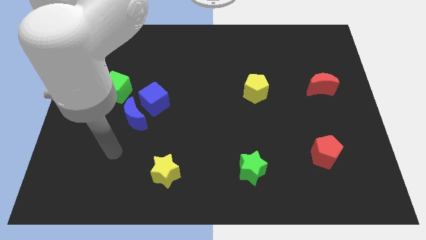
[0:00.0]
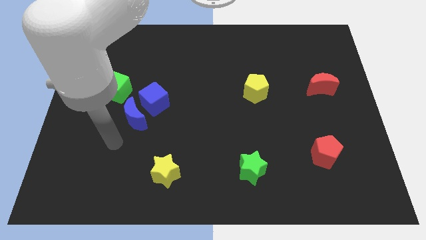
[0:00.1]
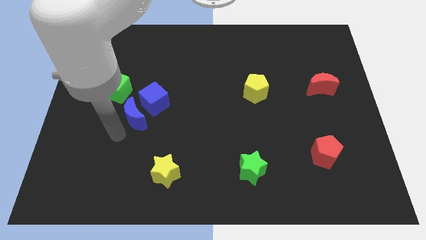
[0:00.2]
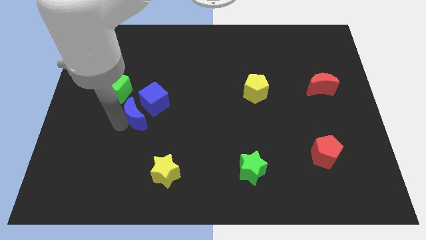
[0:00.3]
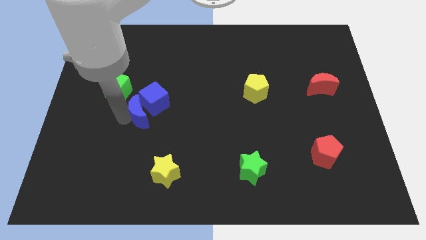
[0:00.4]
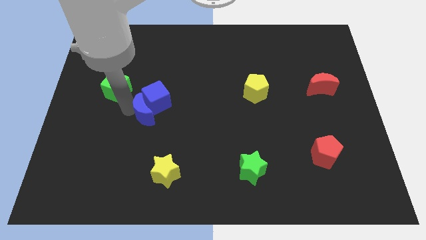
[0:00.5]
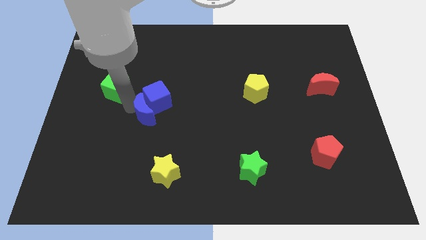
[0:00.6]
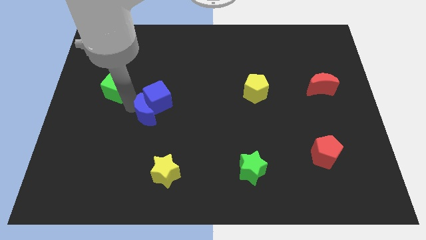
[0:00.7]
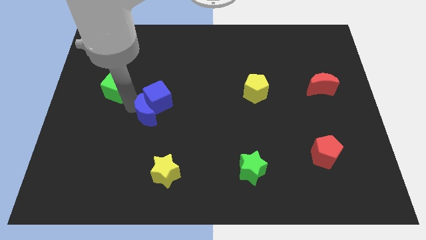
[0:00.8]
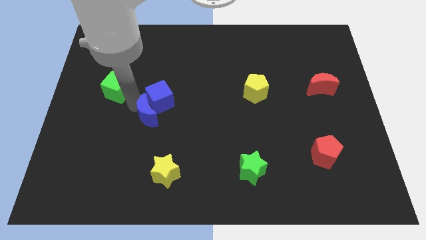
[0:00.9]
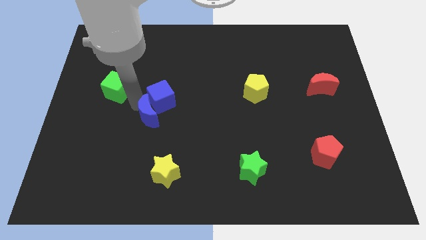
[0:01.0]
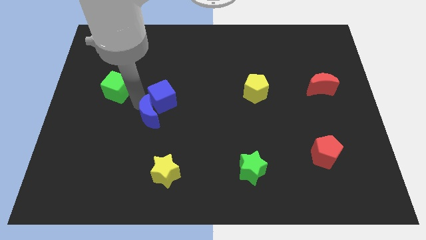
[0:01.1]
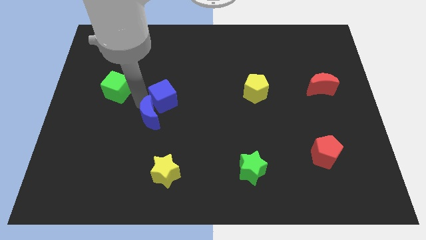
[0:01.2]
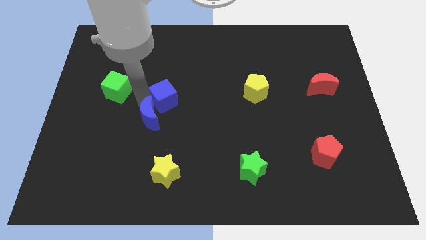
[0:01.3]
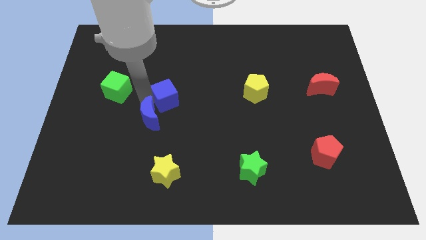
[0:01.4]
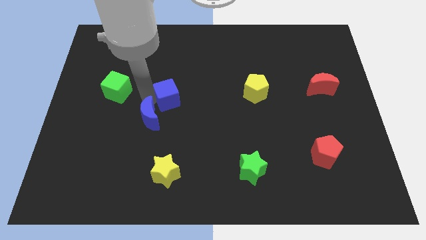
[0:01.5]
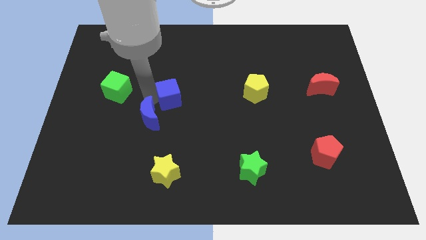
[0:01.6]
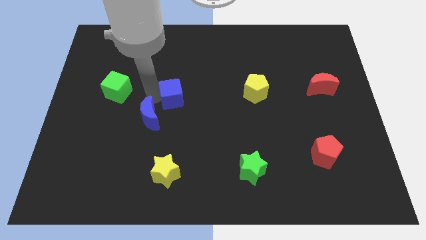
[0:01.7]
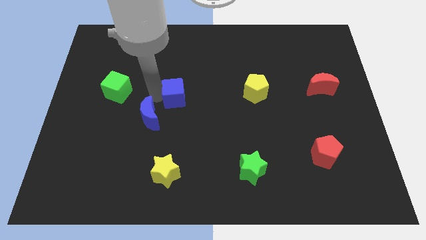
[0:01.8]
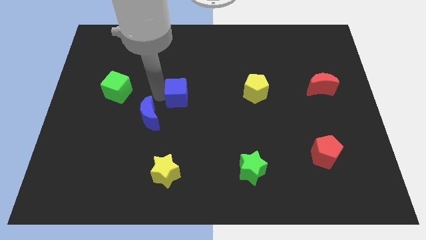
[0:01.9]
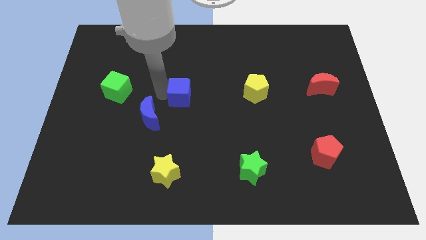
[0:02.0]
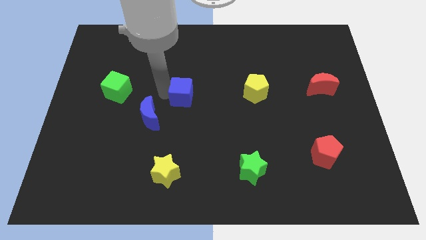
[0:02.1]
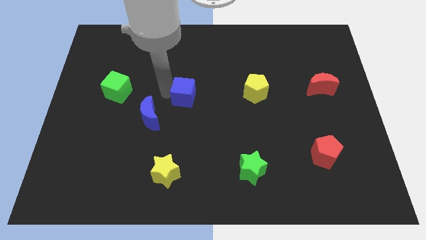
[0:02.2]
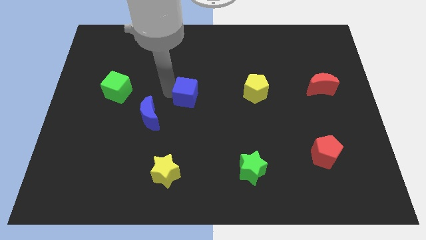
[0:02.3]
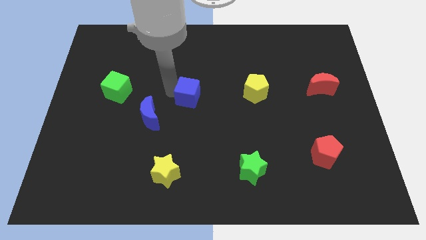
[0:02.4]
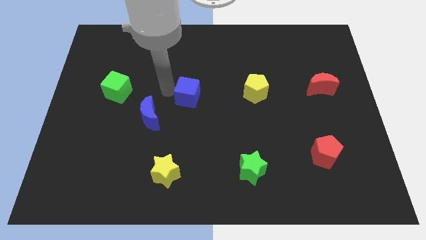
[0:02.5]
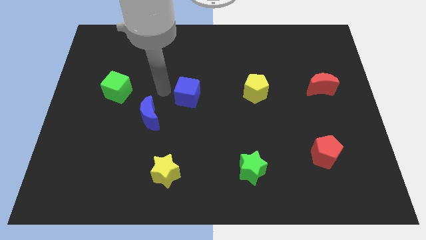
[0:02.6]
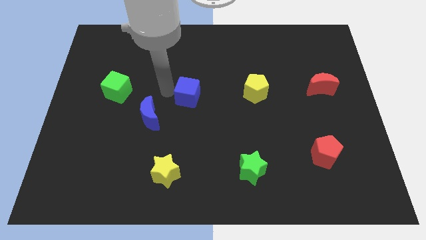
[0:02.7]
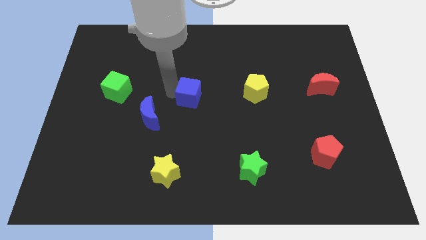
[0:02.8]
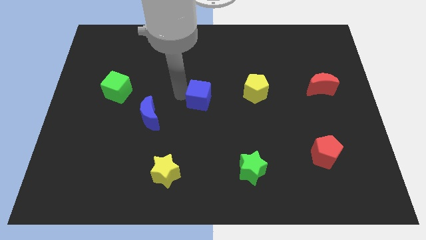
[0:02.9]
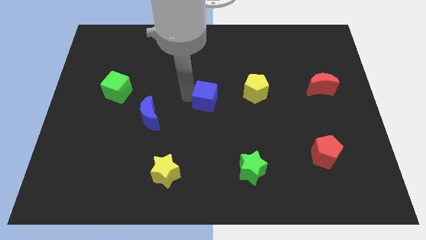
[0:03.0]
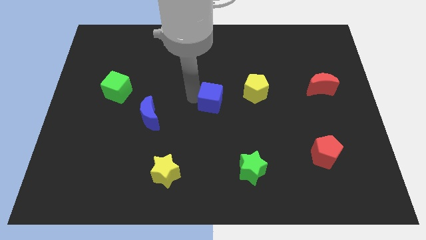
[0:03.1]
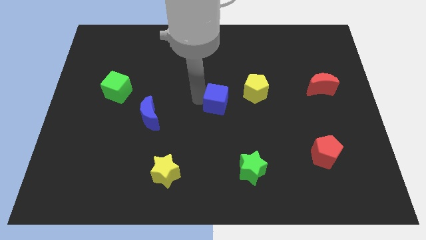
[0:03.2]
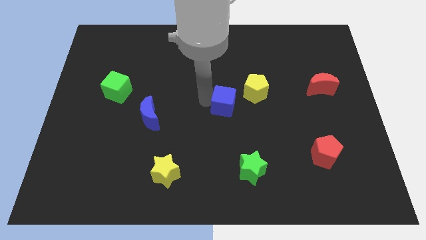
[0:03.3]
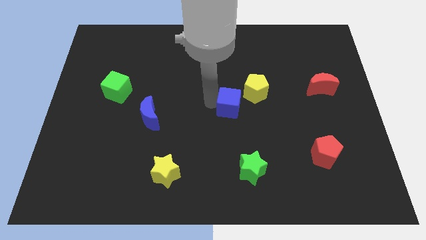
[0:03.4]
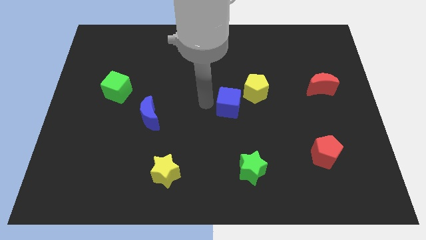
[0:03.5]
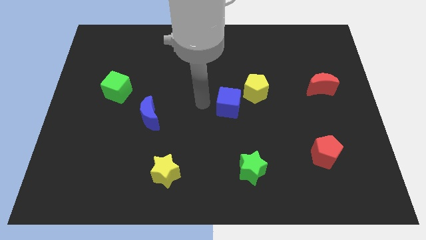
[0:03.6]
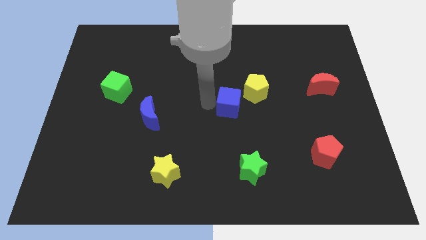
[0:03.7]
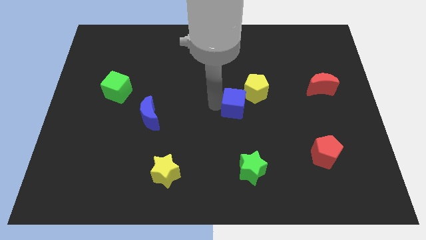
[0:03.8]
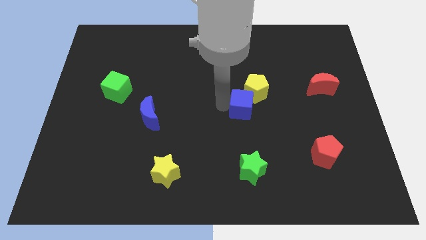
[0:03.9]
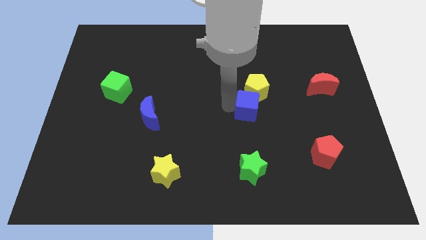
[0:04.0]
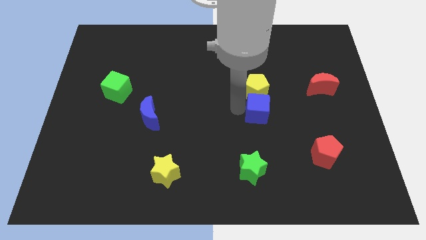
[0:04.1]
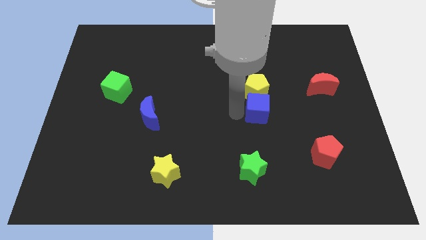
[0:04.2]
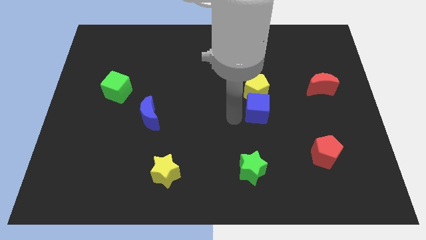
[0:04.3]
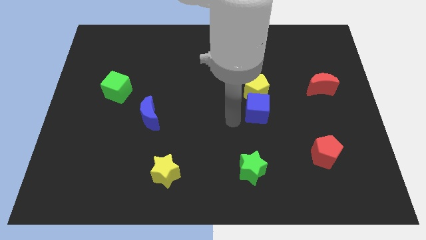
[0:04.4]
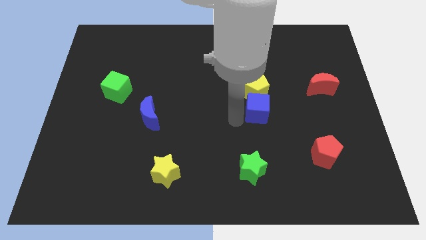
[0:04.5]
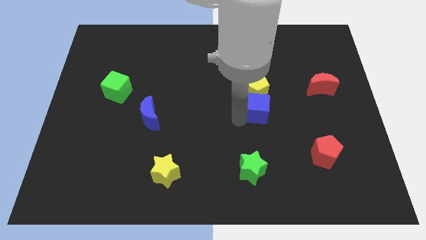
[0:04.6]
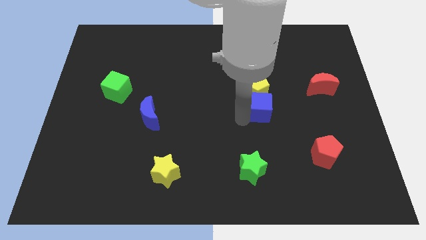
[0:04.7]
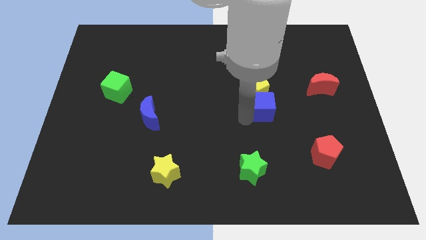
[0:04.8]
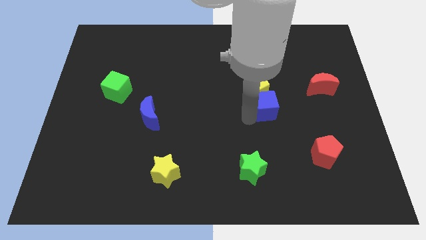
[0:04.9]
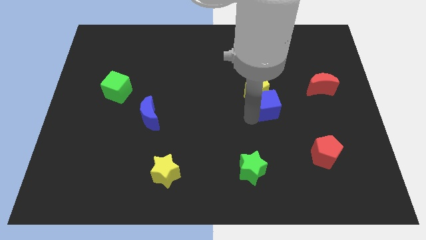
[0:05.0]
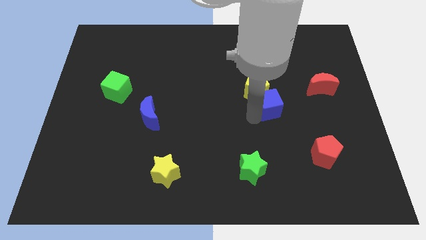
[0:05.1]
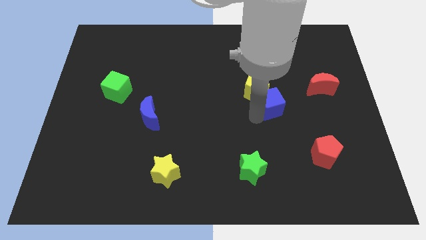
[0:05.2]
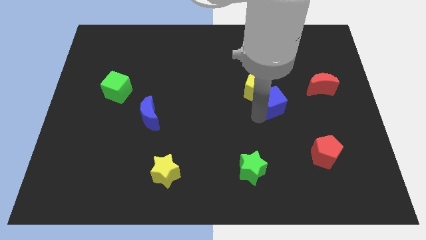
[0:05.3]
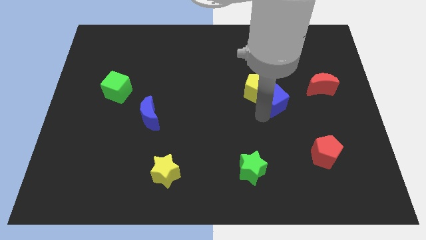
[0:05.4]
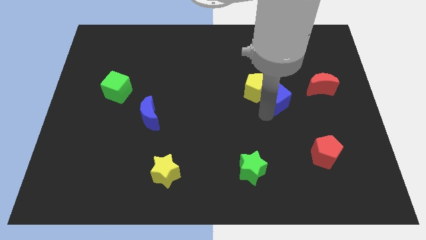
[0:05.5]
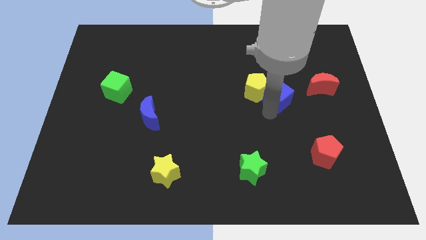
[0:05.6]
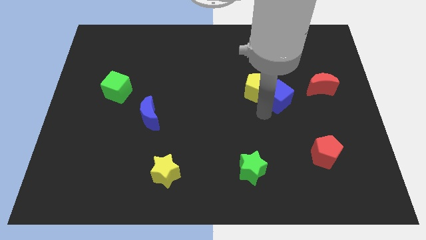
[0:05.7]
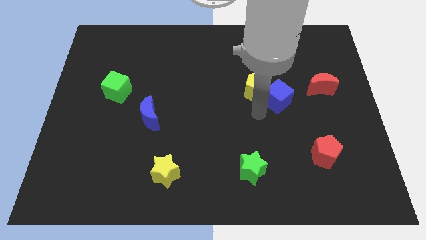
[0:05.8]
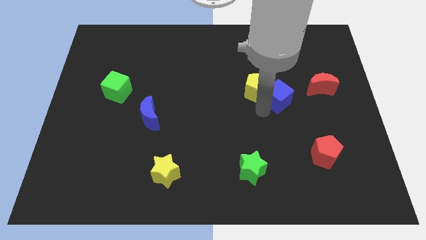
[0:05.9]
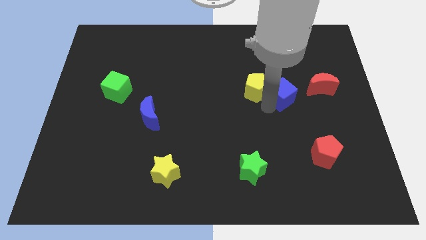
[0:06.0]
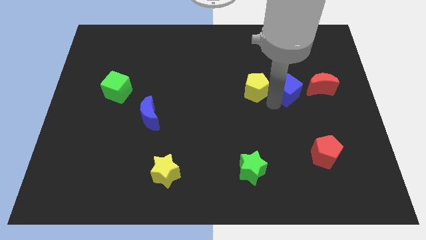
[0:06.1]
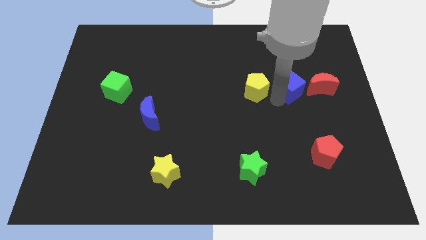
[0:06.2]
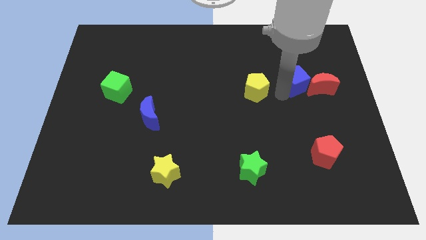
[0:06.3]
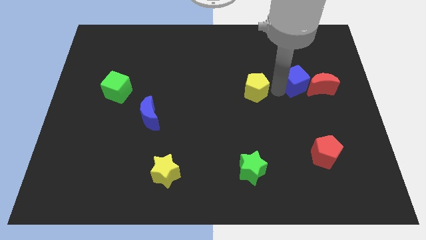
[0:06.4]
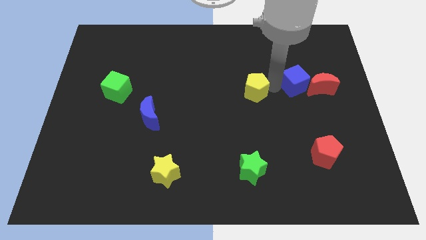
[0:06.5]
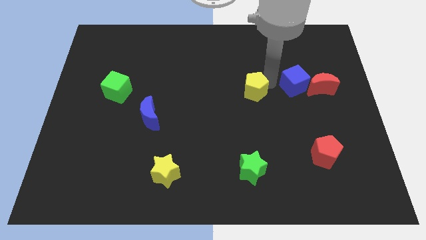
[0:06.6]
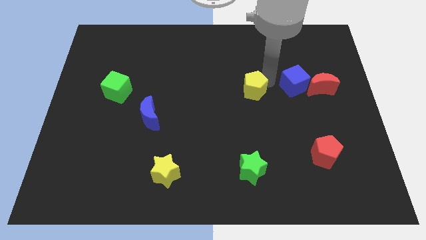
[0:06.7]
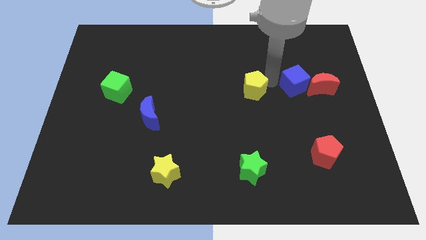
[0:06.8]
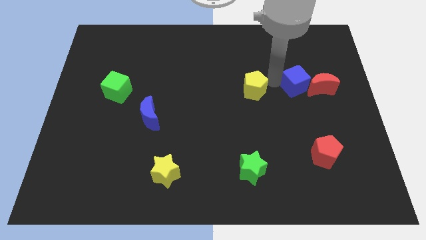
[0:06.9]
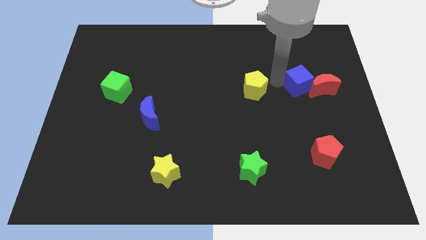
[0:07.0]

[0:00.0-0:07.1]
slide the blue cube to the red moon

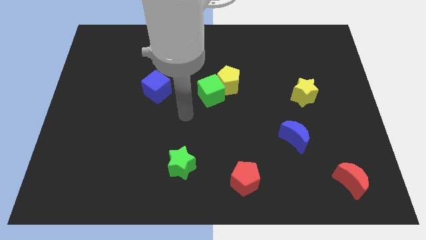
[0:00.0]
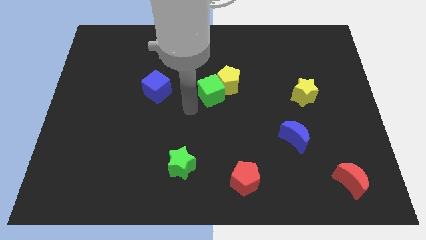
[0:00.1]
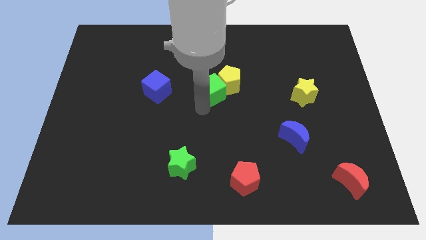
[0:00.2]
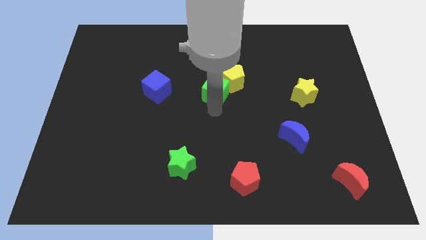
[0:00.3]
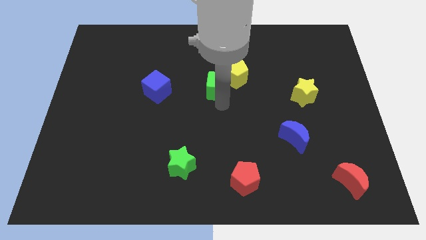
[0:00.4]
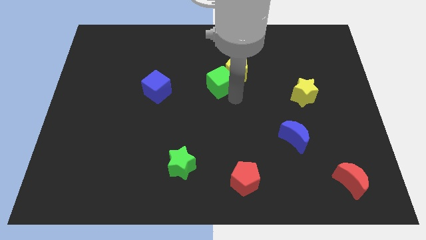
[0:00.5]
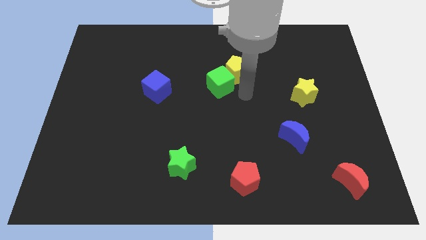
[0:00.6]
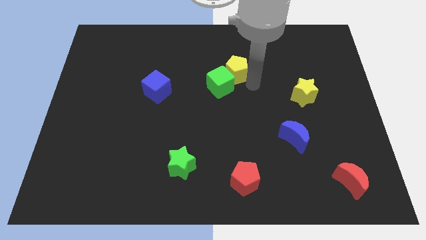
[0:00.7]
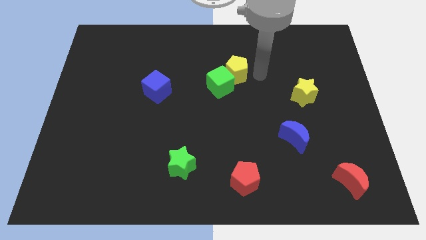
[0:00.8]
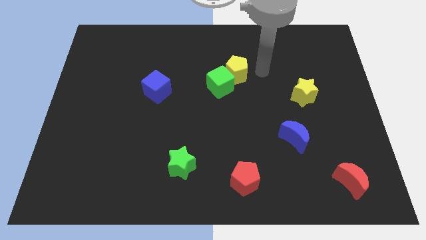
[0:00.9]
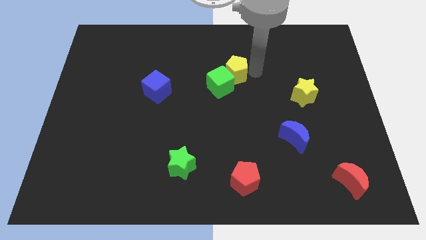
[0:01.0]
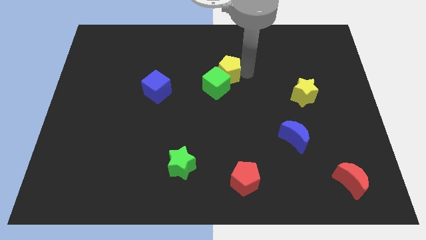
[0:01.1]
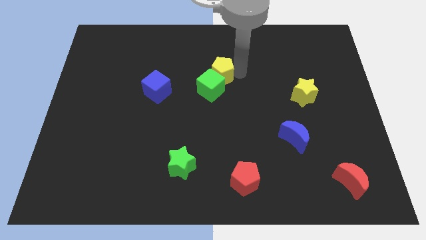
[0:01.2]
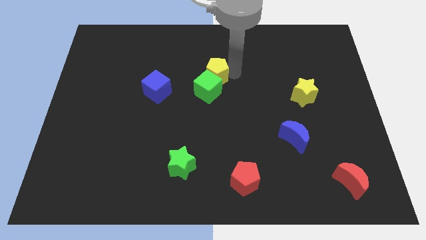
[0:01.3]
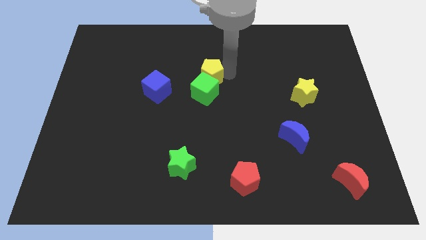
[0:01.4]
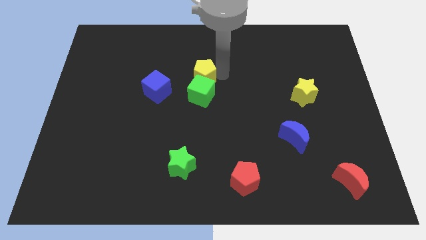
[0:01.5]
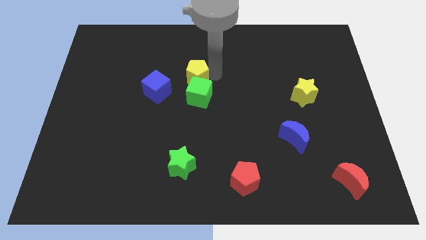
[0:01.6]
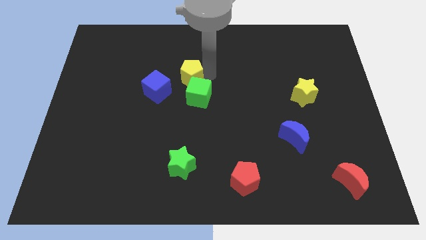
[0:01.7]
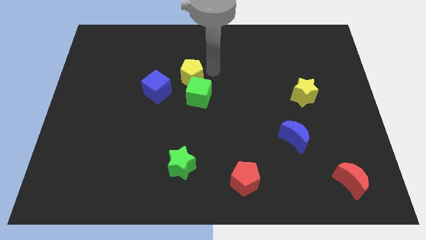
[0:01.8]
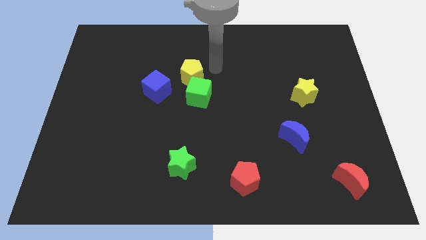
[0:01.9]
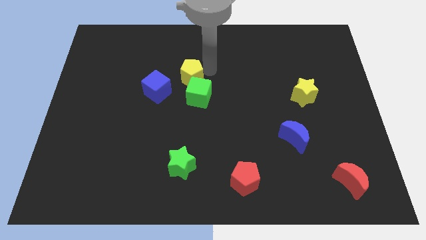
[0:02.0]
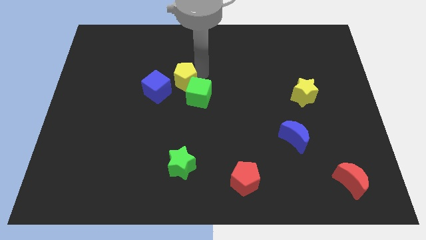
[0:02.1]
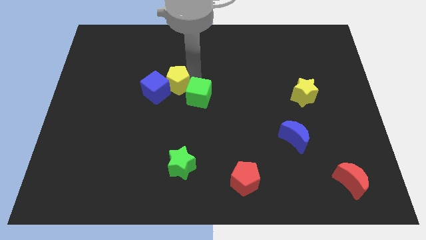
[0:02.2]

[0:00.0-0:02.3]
slide the yellow pentagon to the blue cube
